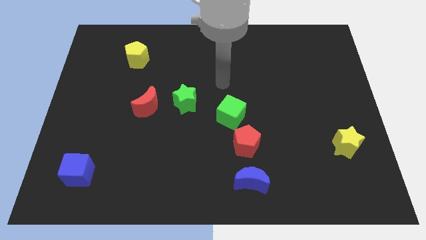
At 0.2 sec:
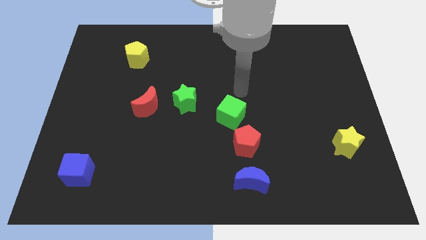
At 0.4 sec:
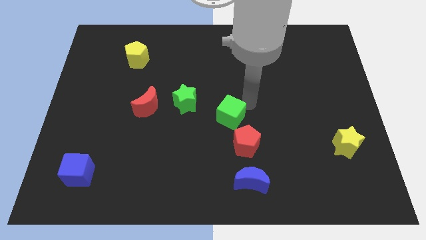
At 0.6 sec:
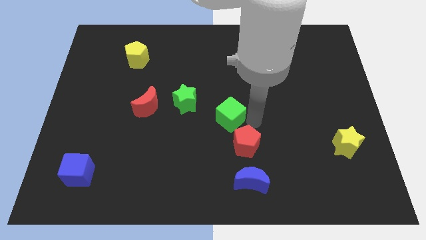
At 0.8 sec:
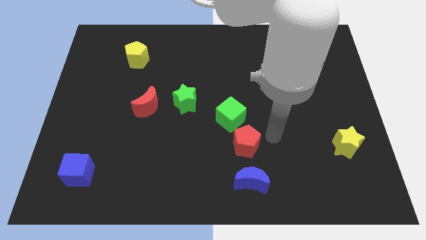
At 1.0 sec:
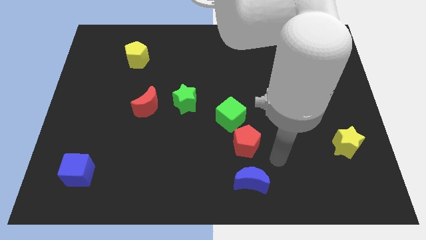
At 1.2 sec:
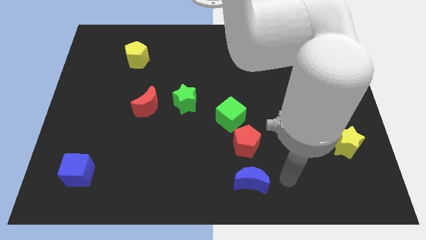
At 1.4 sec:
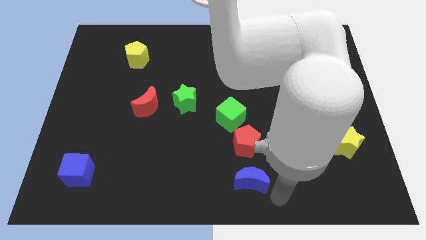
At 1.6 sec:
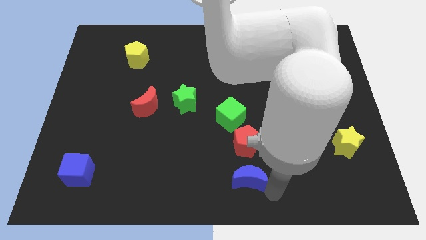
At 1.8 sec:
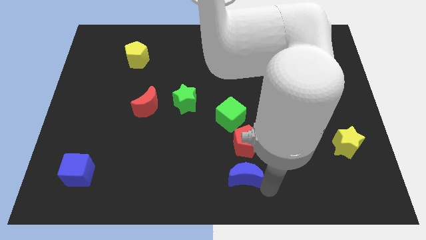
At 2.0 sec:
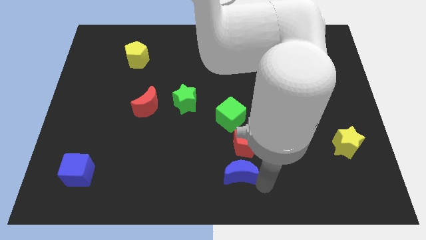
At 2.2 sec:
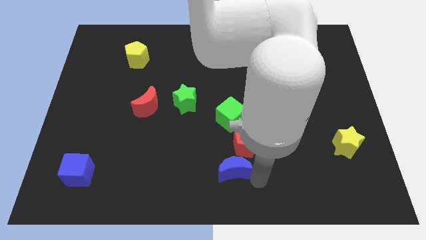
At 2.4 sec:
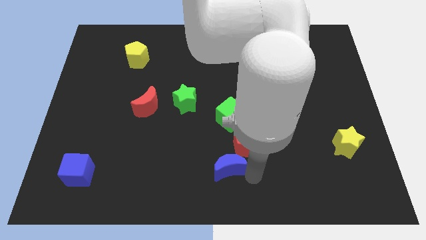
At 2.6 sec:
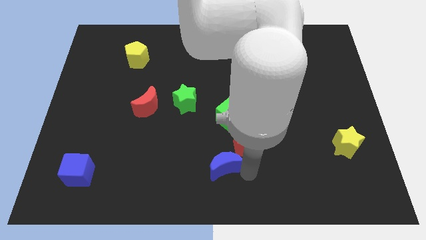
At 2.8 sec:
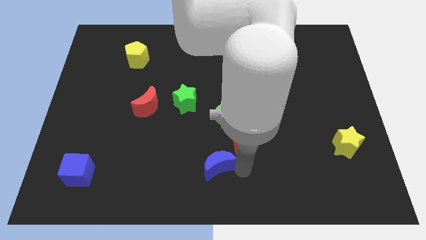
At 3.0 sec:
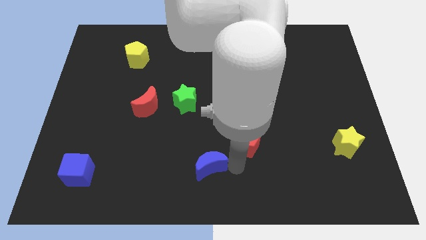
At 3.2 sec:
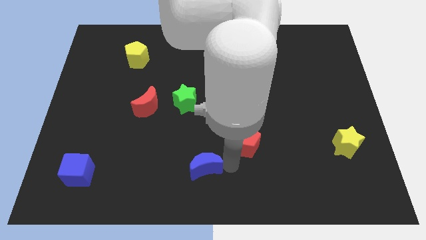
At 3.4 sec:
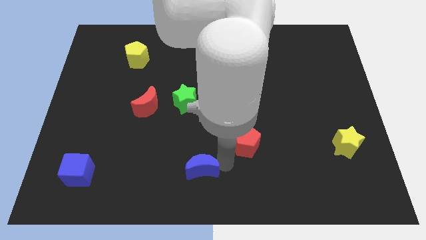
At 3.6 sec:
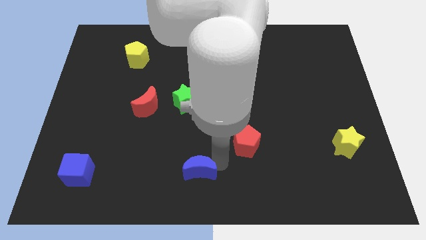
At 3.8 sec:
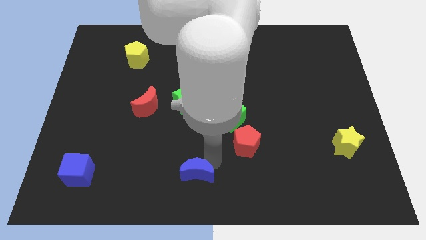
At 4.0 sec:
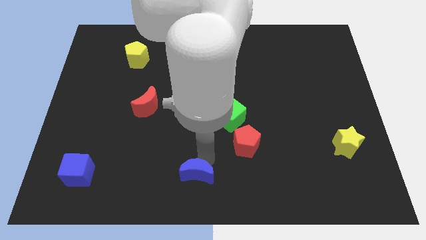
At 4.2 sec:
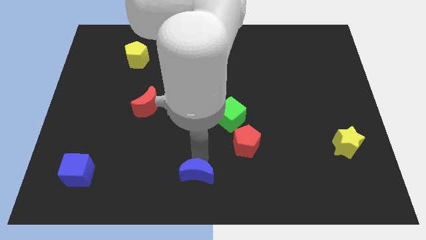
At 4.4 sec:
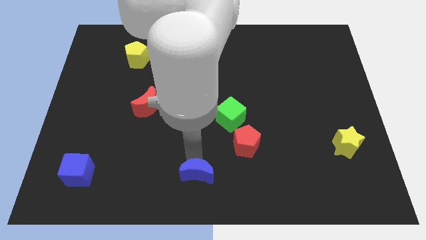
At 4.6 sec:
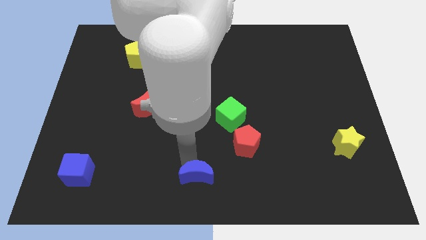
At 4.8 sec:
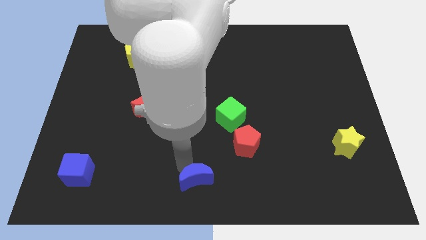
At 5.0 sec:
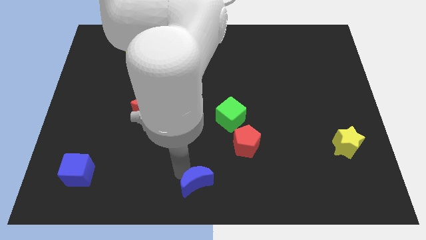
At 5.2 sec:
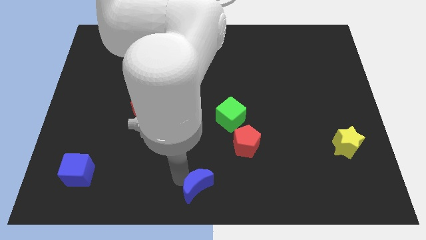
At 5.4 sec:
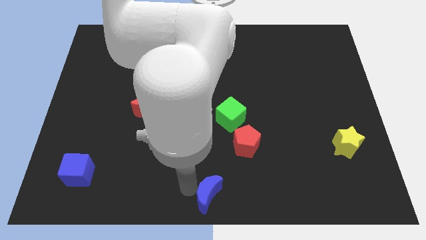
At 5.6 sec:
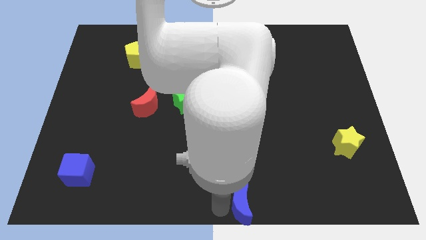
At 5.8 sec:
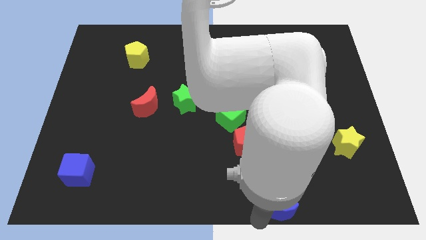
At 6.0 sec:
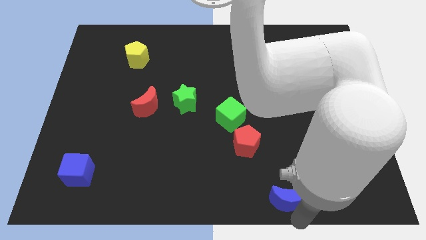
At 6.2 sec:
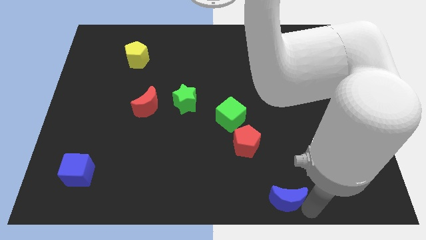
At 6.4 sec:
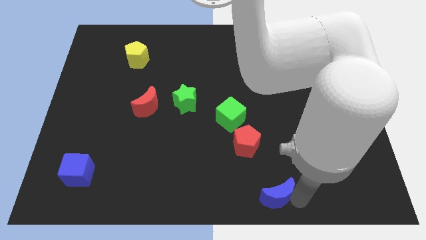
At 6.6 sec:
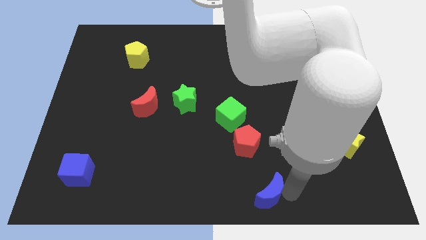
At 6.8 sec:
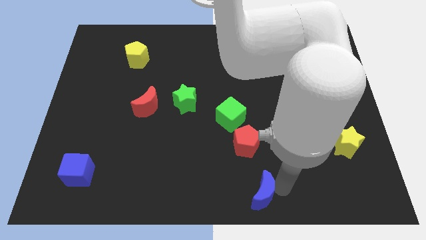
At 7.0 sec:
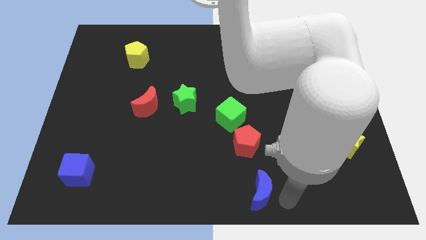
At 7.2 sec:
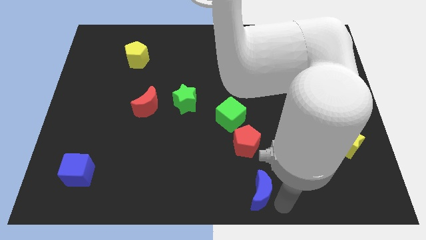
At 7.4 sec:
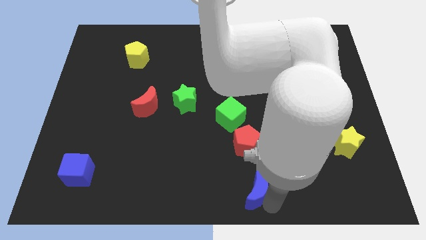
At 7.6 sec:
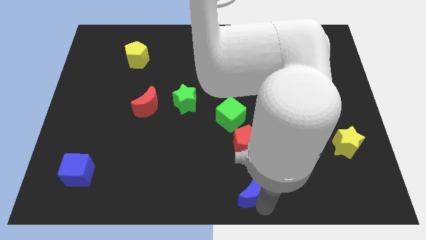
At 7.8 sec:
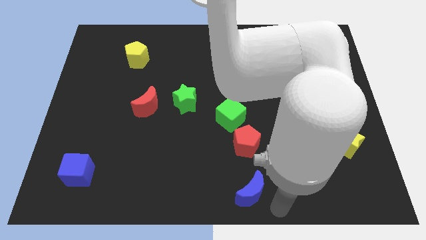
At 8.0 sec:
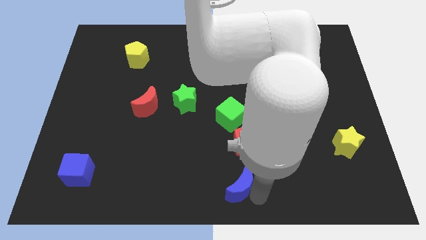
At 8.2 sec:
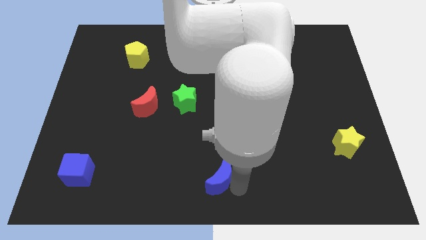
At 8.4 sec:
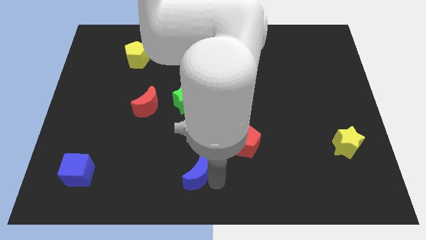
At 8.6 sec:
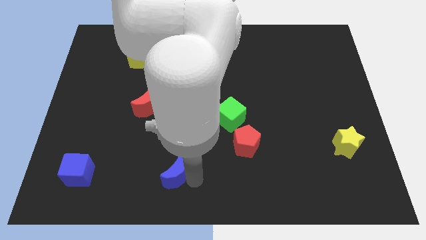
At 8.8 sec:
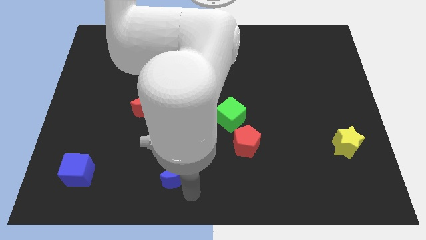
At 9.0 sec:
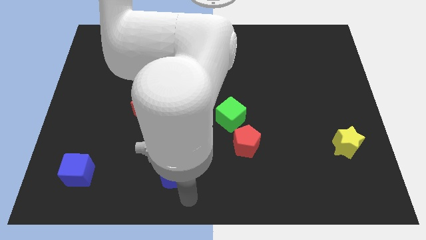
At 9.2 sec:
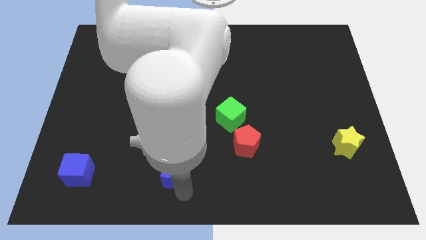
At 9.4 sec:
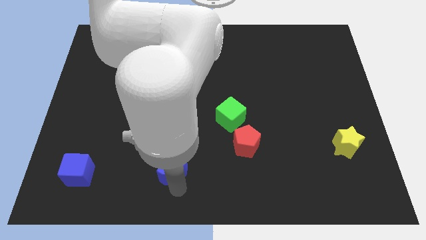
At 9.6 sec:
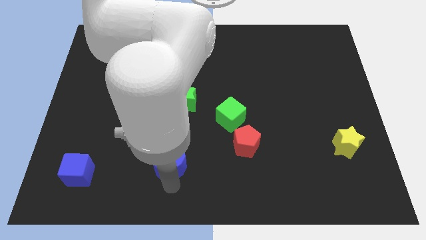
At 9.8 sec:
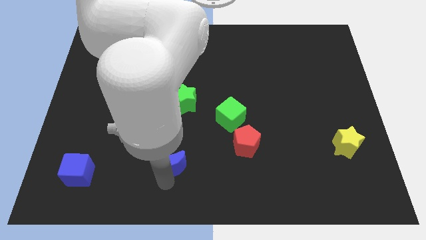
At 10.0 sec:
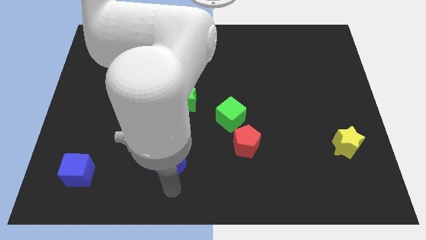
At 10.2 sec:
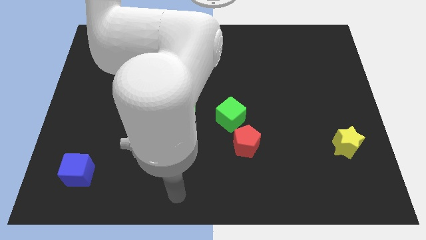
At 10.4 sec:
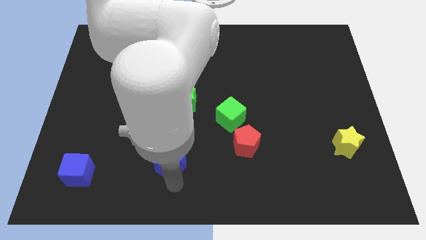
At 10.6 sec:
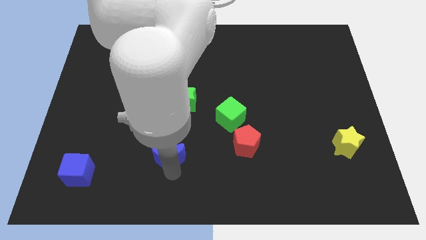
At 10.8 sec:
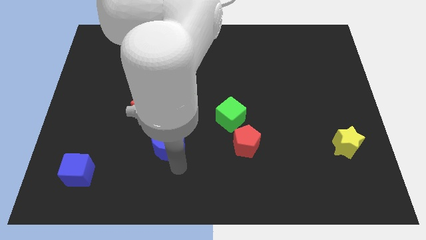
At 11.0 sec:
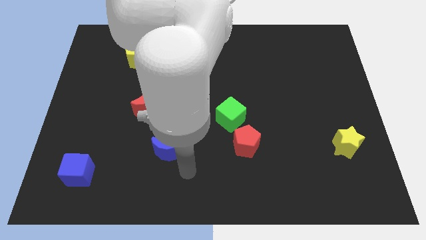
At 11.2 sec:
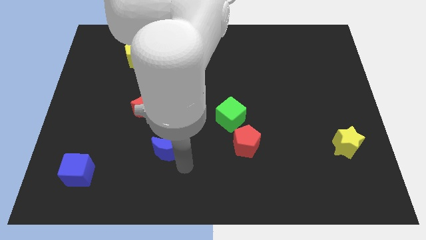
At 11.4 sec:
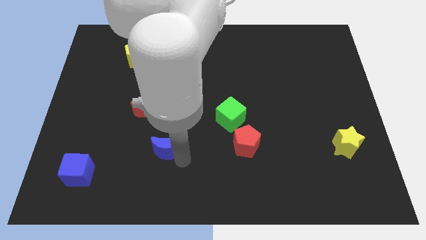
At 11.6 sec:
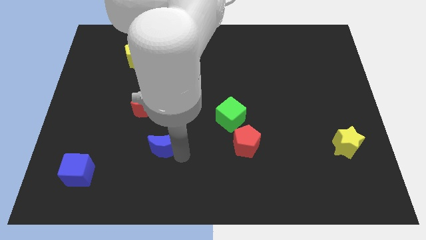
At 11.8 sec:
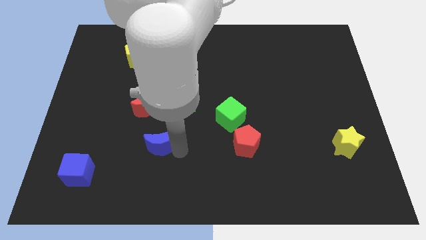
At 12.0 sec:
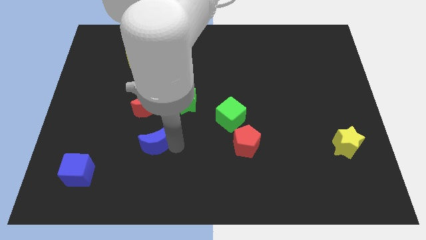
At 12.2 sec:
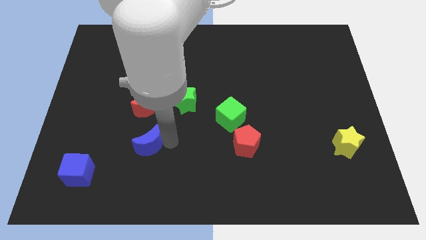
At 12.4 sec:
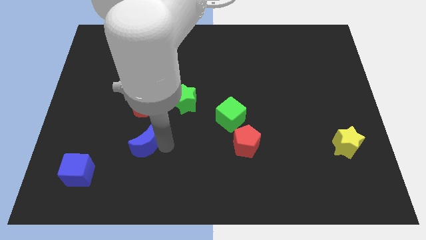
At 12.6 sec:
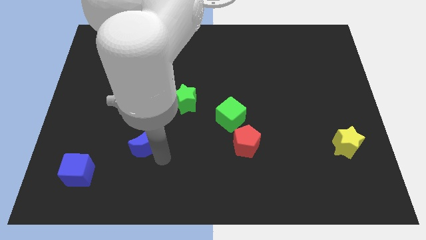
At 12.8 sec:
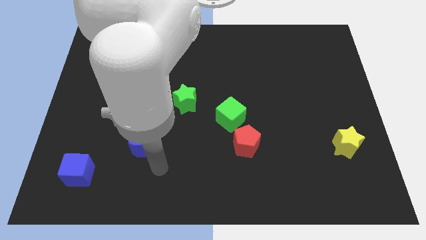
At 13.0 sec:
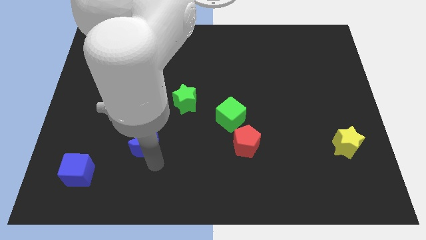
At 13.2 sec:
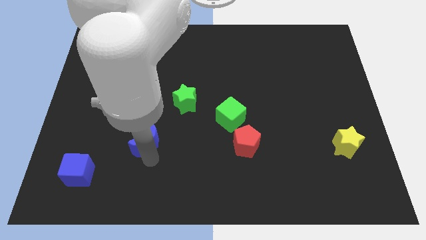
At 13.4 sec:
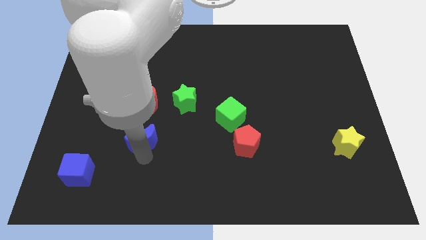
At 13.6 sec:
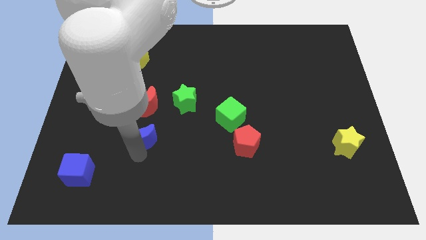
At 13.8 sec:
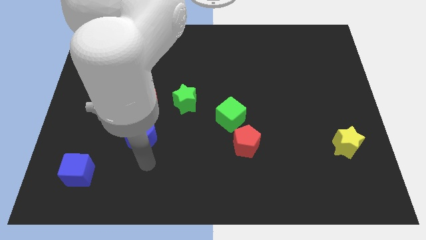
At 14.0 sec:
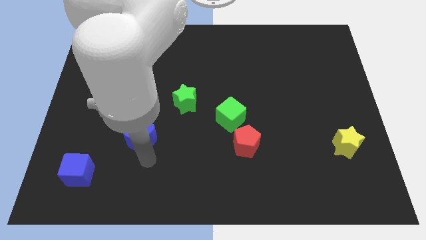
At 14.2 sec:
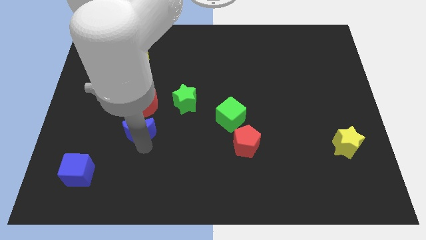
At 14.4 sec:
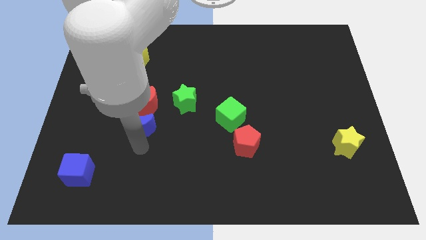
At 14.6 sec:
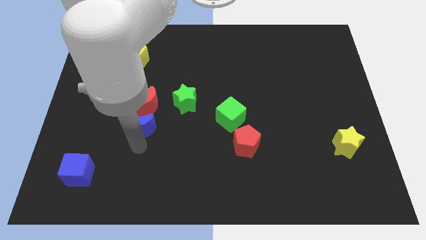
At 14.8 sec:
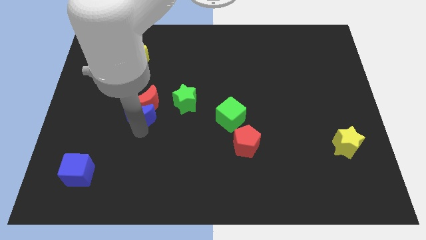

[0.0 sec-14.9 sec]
slide the blue moon left of the green star
